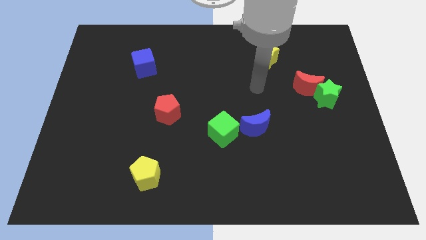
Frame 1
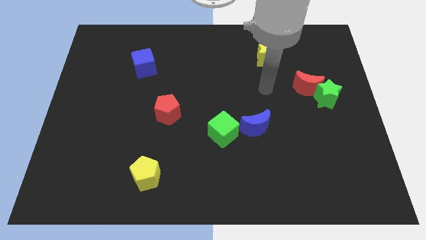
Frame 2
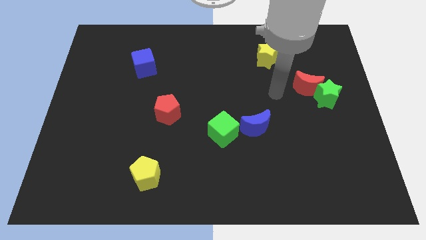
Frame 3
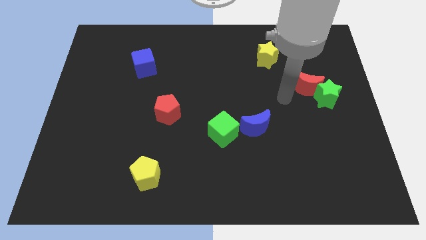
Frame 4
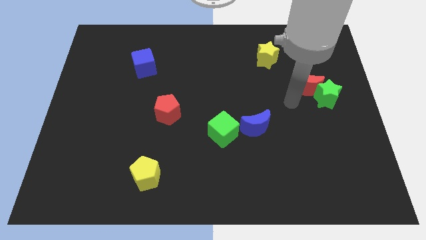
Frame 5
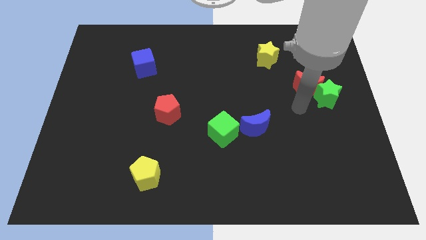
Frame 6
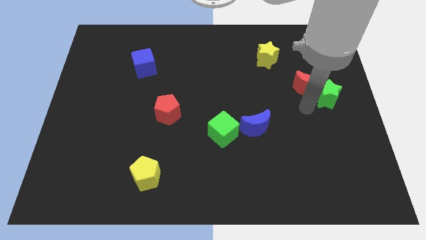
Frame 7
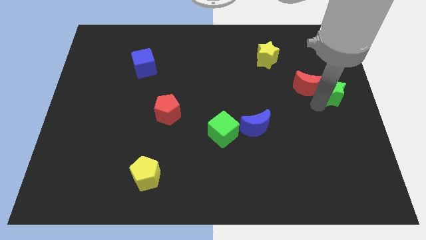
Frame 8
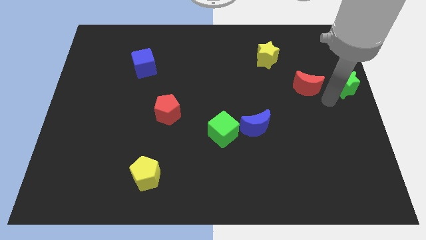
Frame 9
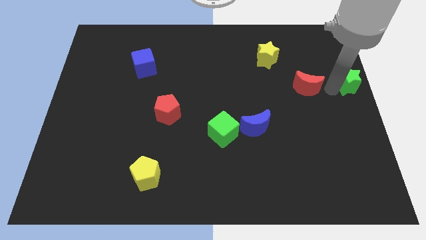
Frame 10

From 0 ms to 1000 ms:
separate the red moon from the green star

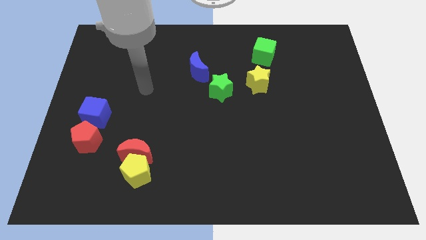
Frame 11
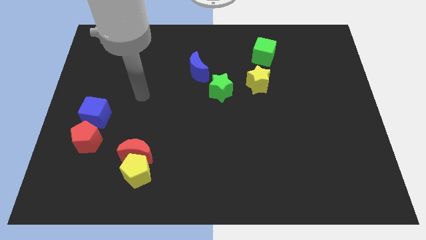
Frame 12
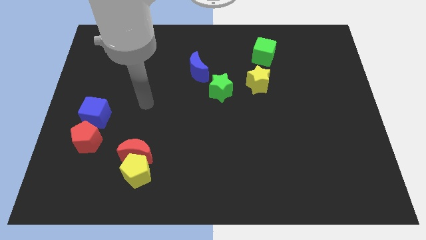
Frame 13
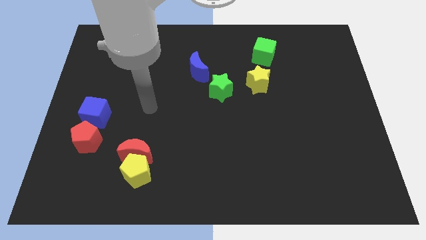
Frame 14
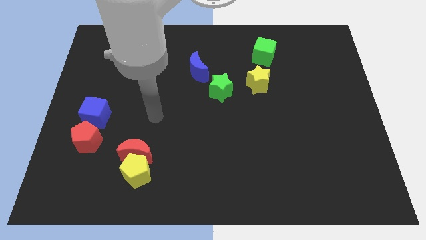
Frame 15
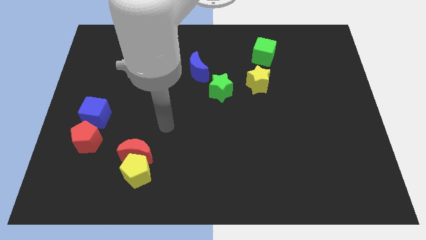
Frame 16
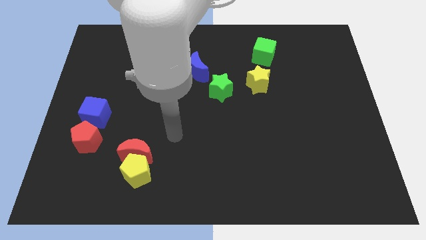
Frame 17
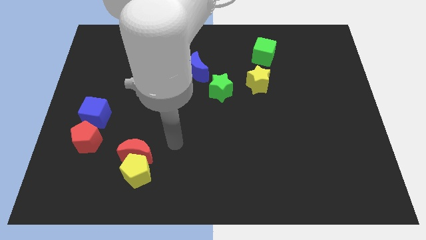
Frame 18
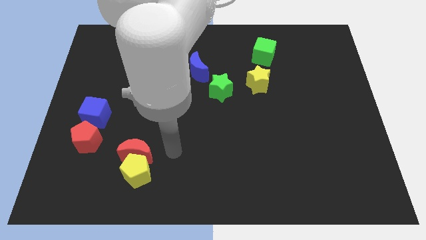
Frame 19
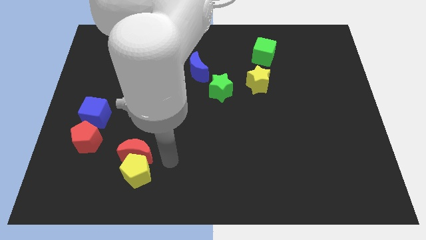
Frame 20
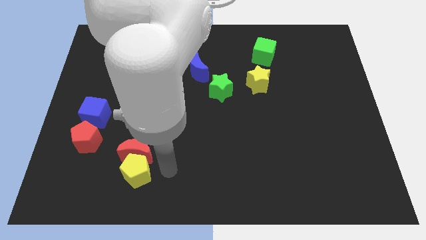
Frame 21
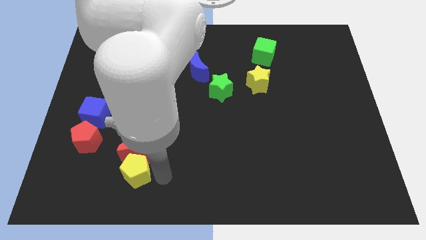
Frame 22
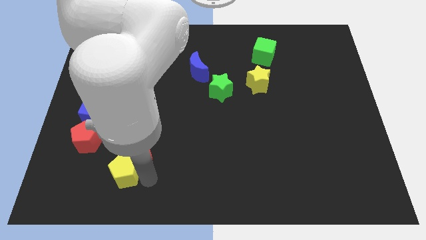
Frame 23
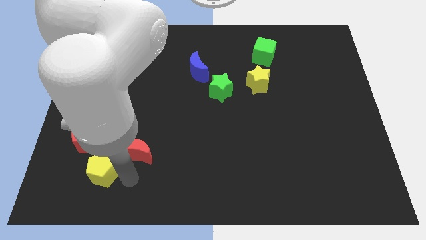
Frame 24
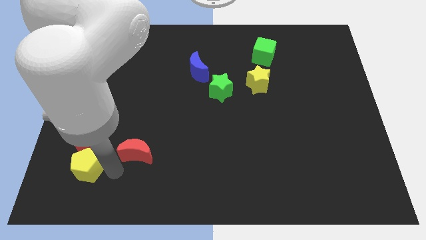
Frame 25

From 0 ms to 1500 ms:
move the red moon away from the yellow pentagon

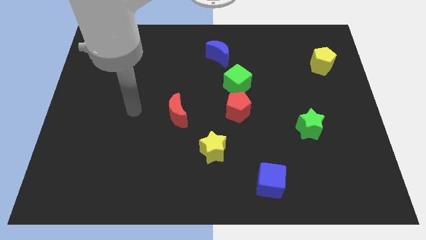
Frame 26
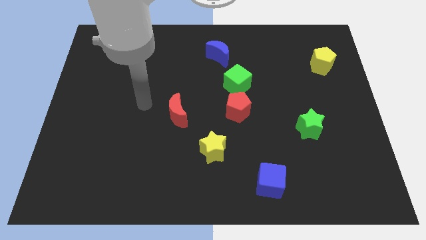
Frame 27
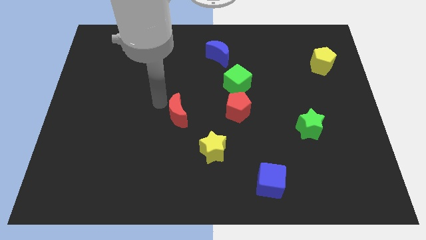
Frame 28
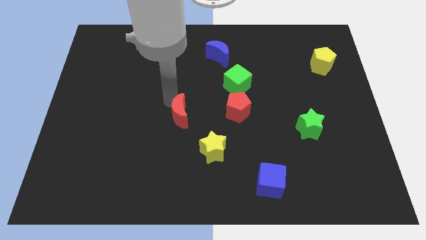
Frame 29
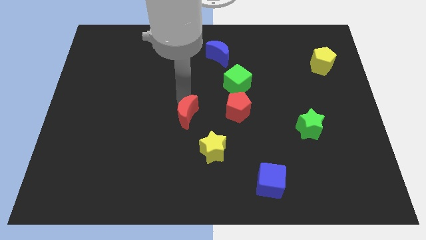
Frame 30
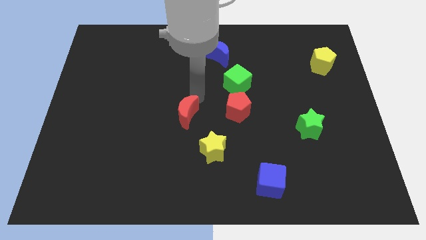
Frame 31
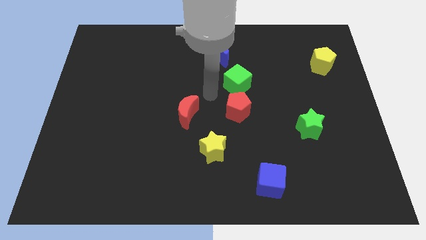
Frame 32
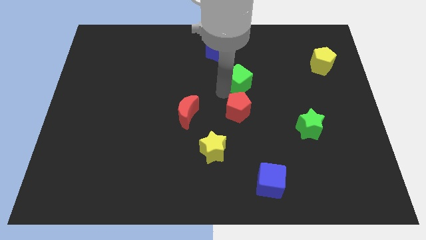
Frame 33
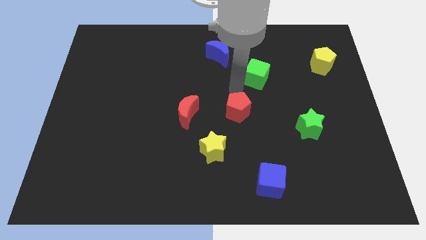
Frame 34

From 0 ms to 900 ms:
move the red pentagon away from the green cube

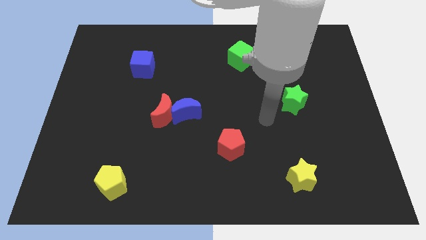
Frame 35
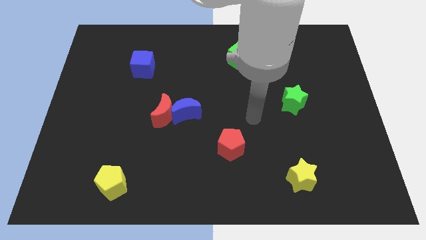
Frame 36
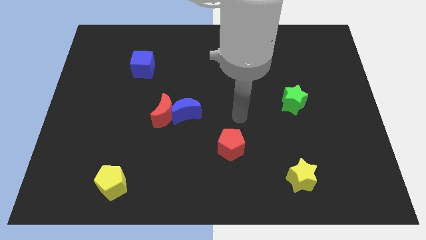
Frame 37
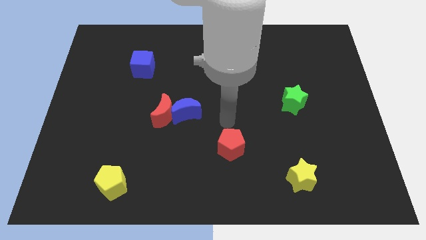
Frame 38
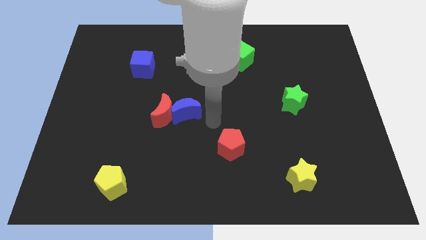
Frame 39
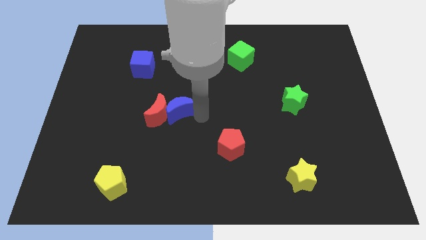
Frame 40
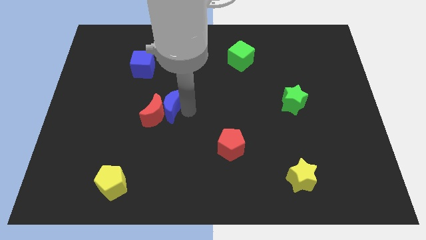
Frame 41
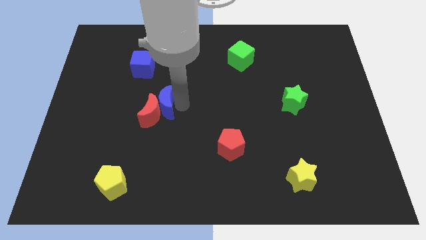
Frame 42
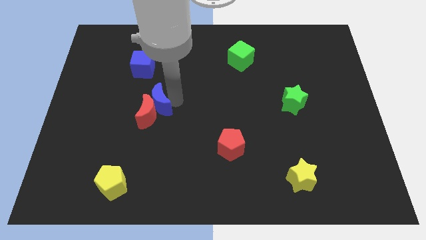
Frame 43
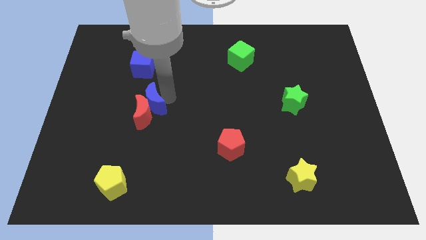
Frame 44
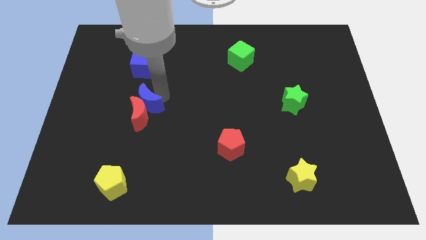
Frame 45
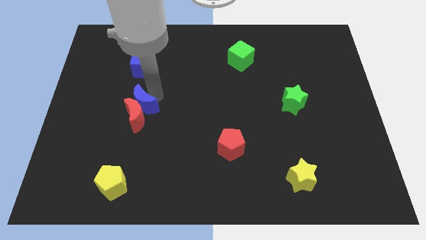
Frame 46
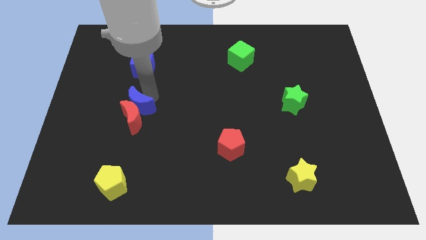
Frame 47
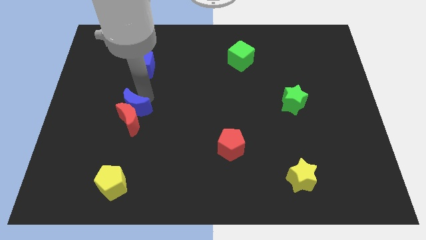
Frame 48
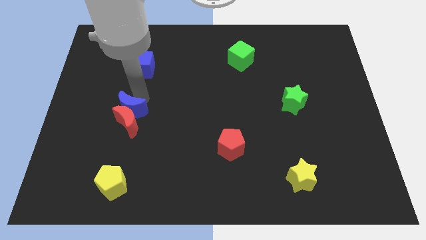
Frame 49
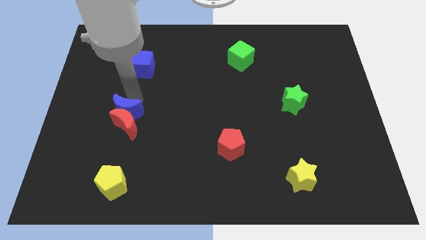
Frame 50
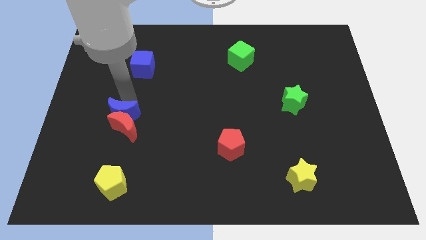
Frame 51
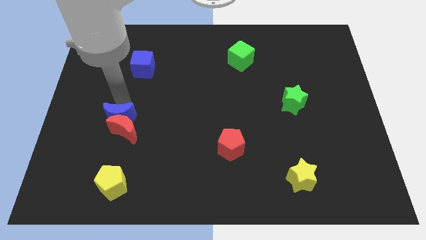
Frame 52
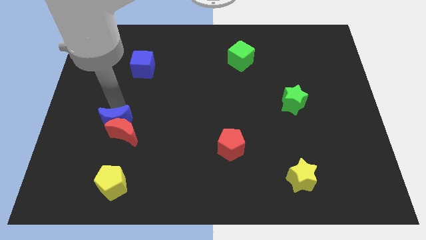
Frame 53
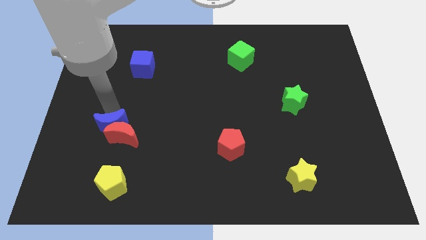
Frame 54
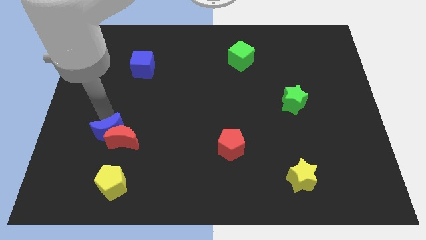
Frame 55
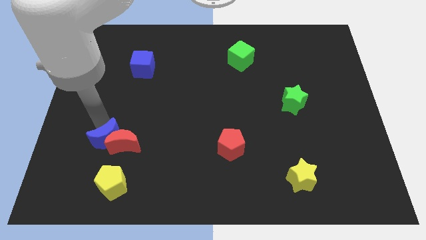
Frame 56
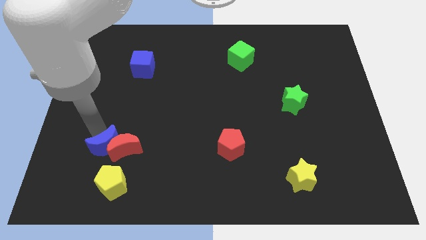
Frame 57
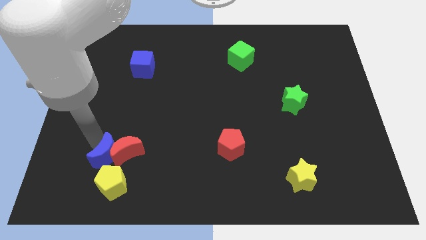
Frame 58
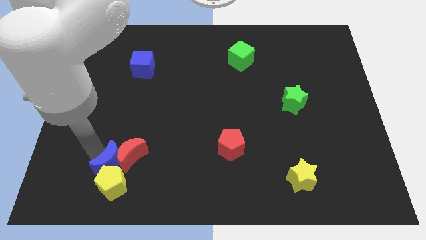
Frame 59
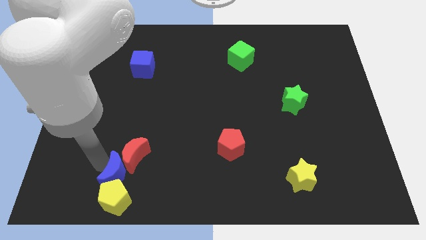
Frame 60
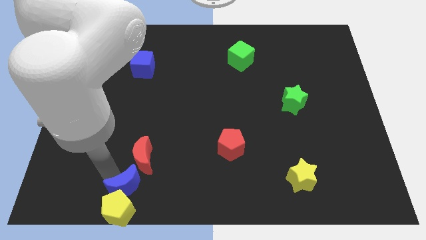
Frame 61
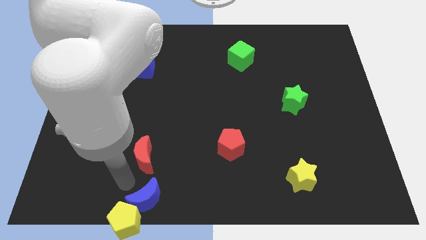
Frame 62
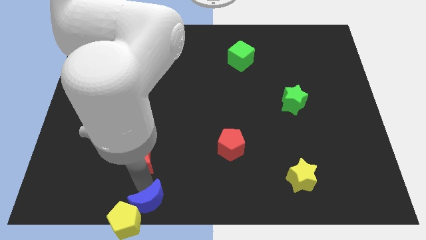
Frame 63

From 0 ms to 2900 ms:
pull the red moon apart from the blue moon

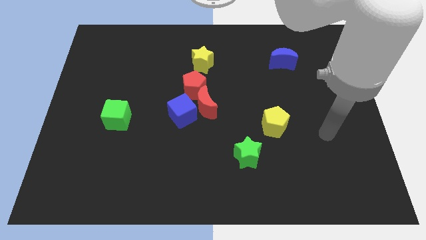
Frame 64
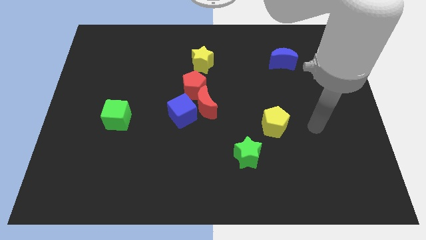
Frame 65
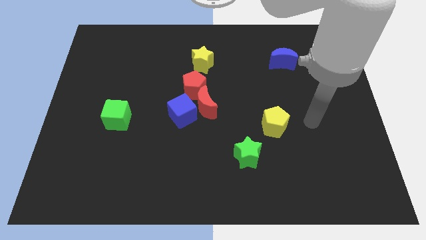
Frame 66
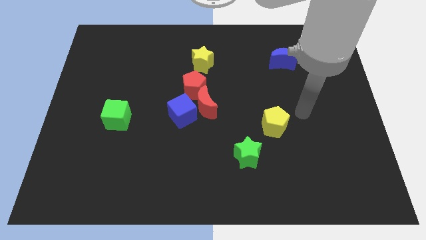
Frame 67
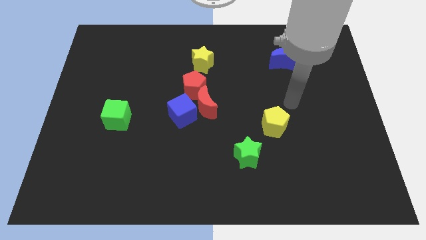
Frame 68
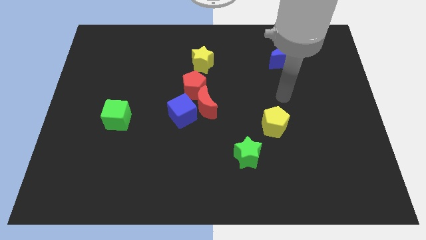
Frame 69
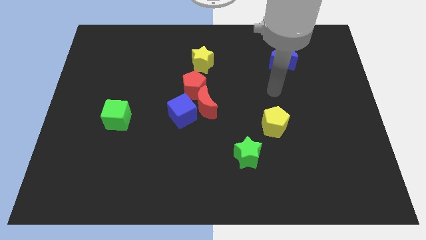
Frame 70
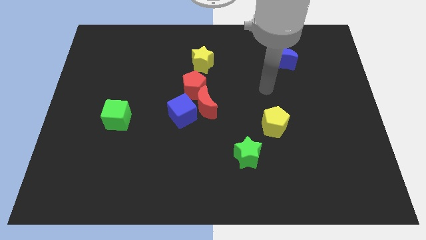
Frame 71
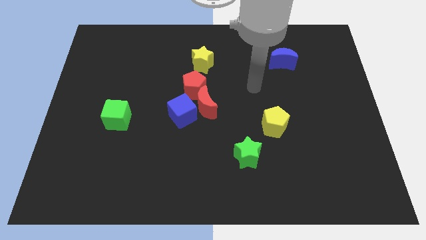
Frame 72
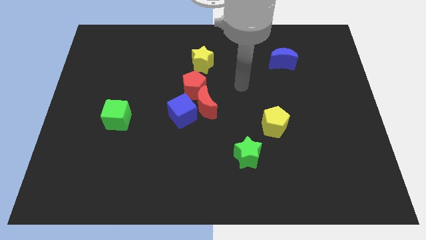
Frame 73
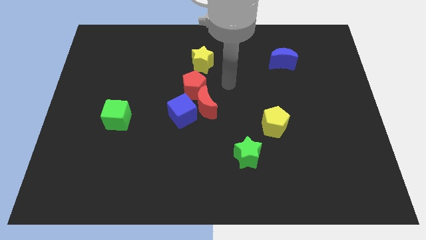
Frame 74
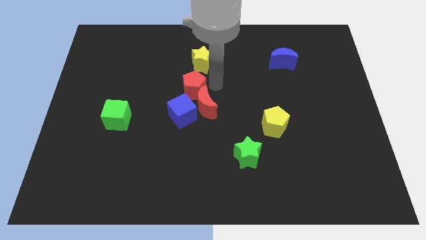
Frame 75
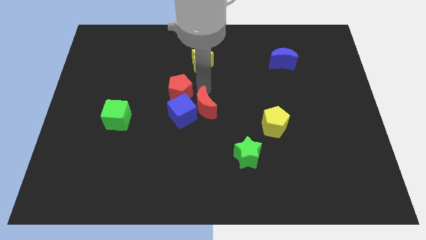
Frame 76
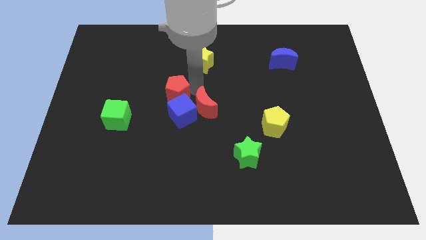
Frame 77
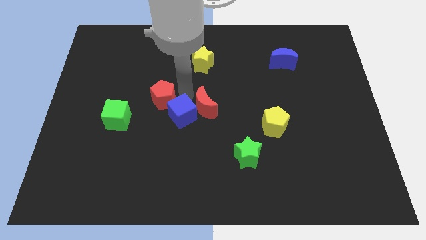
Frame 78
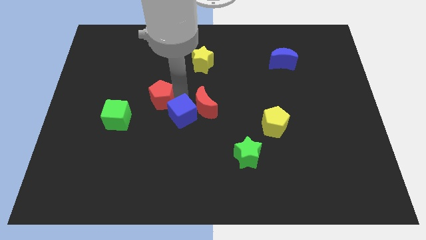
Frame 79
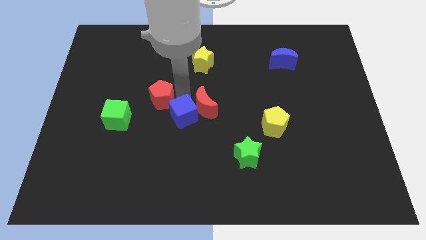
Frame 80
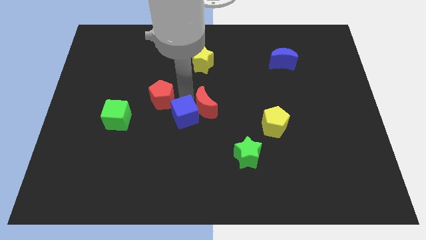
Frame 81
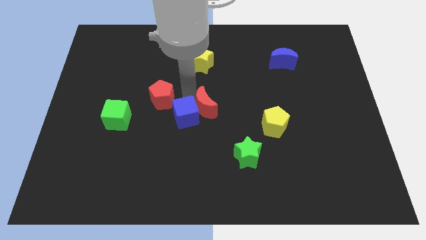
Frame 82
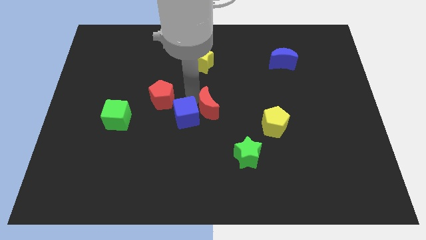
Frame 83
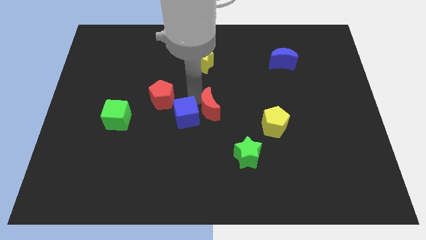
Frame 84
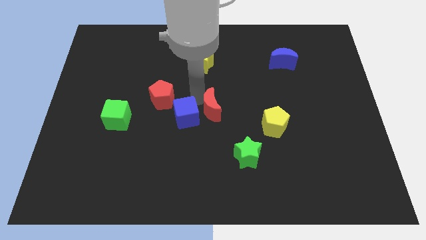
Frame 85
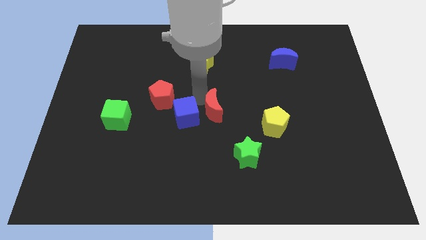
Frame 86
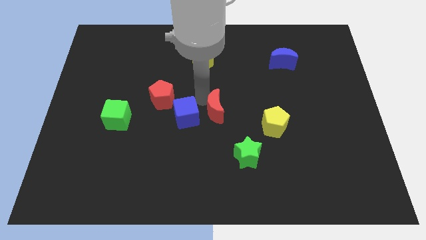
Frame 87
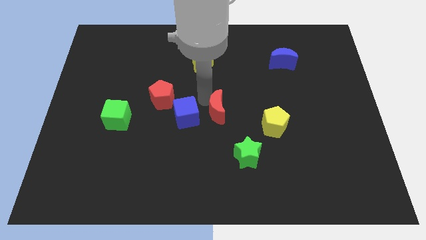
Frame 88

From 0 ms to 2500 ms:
move the red moon away from the blue cube and red pentagon

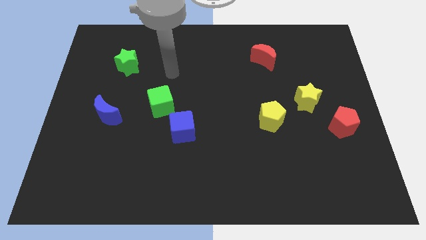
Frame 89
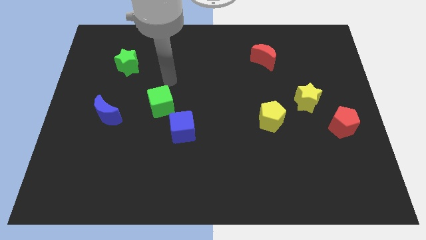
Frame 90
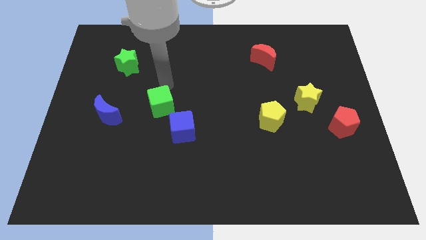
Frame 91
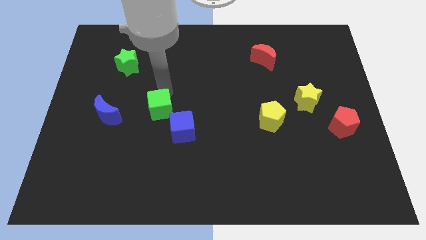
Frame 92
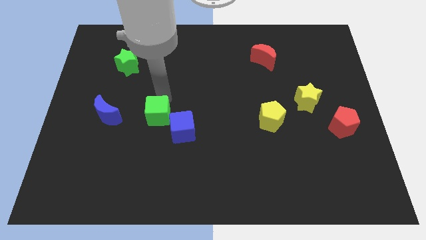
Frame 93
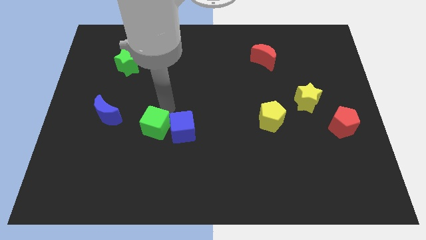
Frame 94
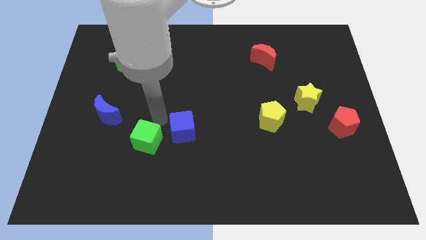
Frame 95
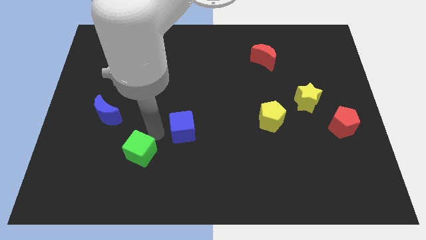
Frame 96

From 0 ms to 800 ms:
separate the blue cube from the green cube
